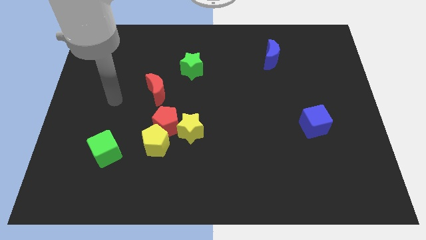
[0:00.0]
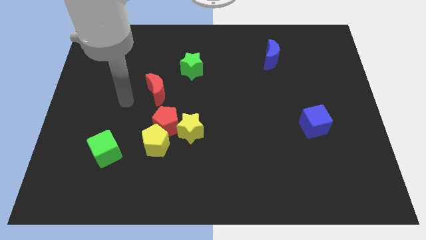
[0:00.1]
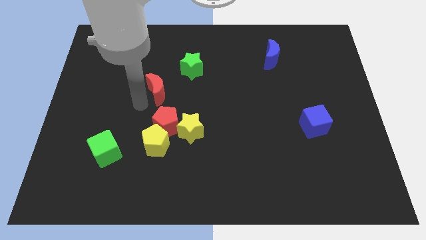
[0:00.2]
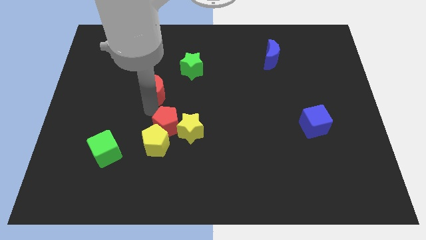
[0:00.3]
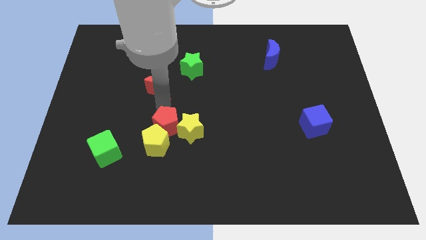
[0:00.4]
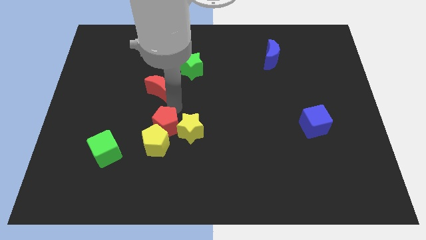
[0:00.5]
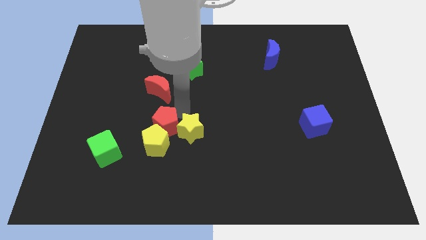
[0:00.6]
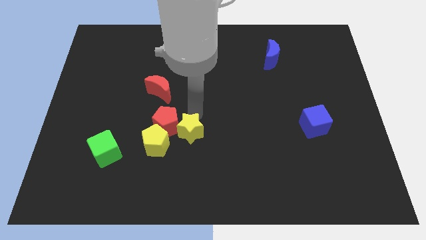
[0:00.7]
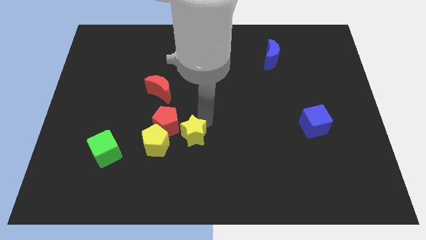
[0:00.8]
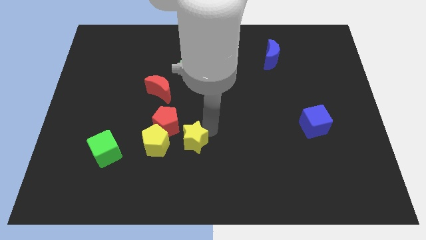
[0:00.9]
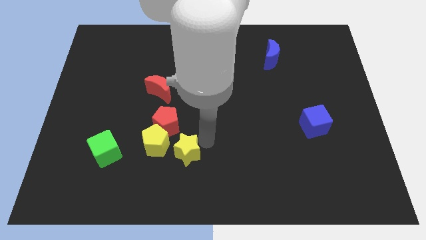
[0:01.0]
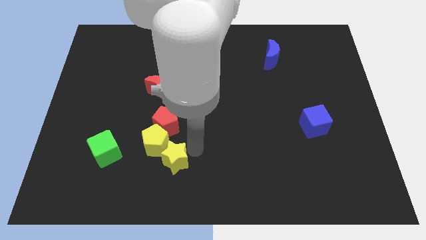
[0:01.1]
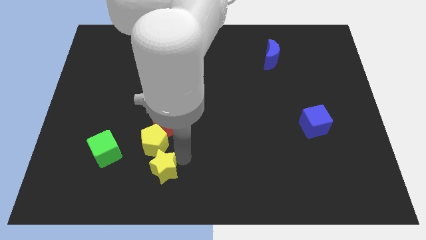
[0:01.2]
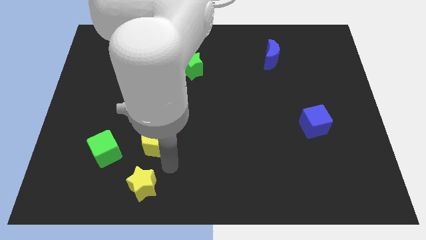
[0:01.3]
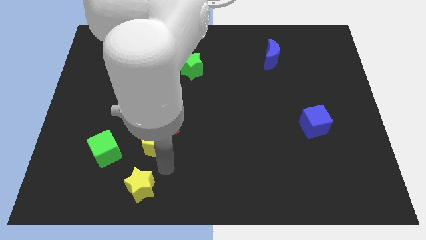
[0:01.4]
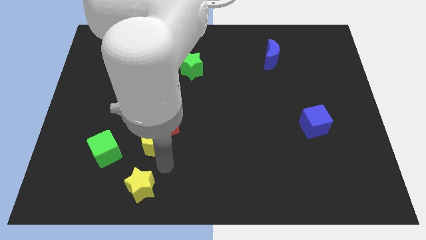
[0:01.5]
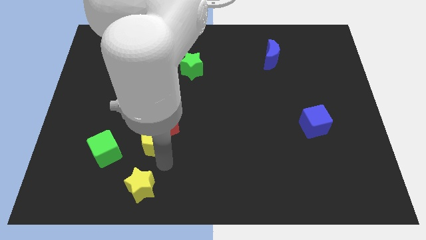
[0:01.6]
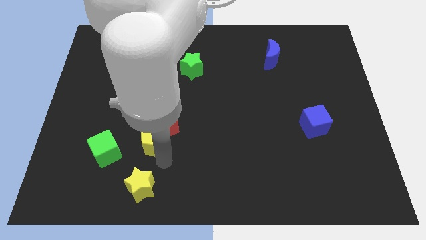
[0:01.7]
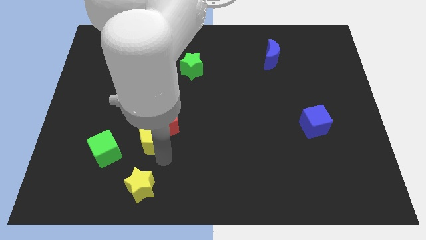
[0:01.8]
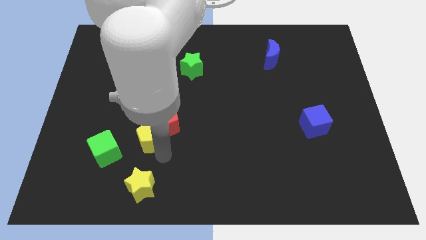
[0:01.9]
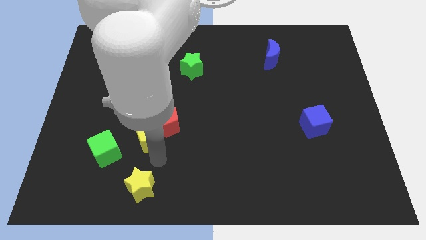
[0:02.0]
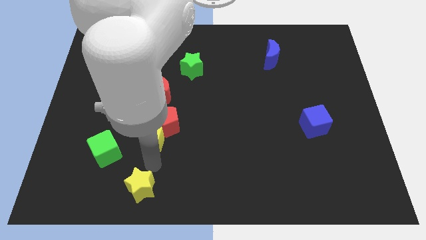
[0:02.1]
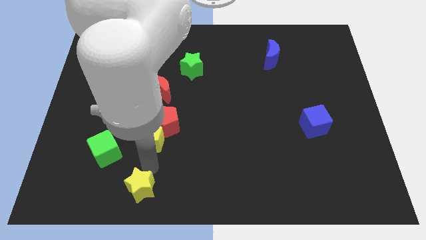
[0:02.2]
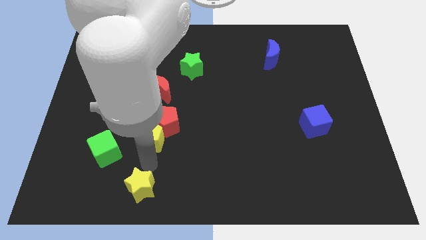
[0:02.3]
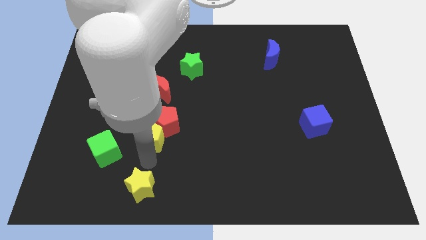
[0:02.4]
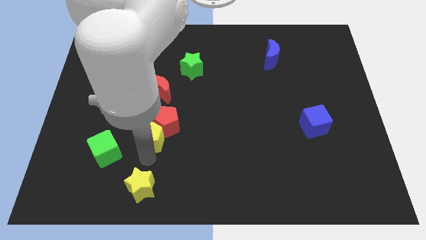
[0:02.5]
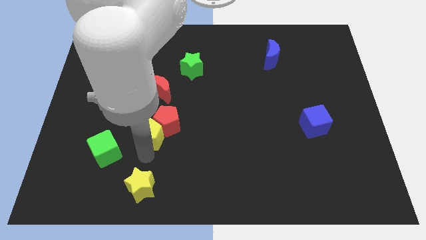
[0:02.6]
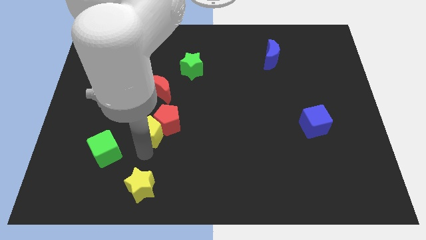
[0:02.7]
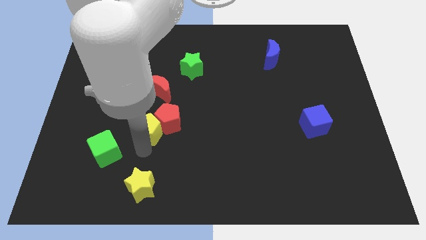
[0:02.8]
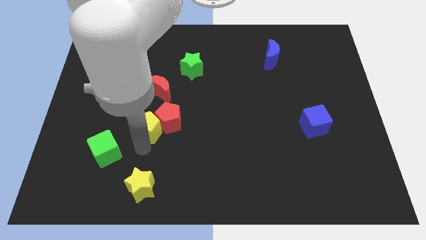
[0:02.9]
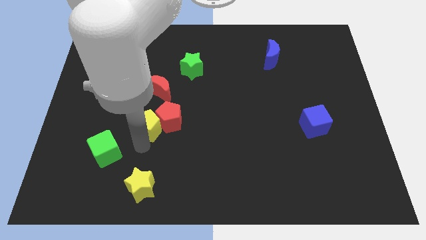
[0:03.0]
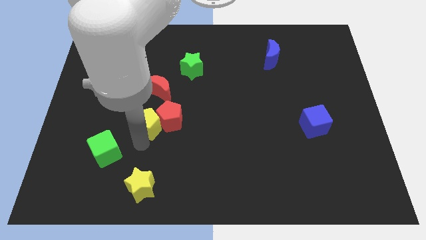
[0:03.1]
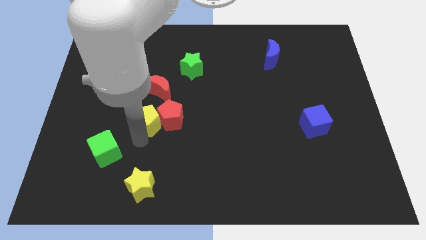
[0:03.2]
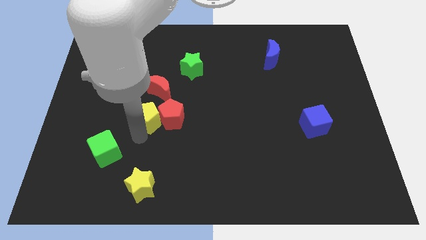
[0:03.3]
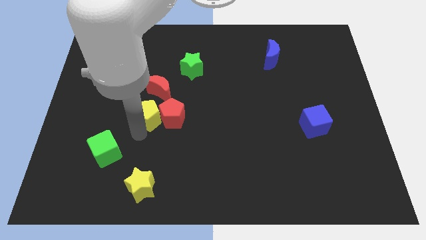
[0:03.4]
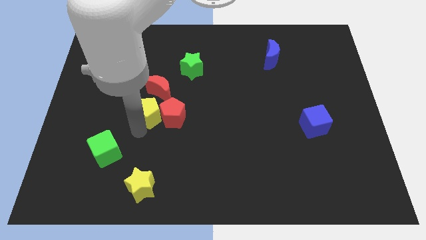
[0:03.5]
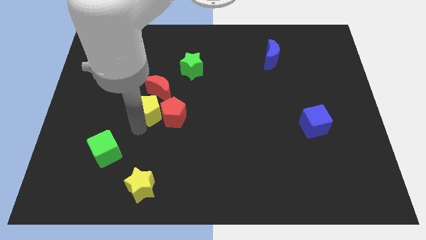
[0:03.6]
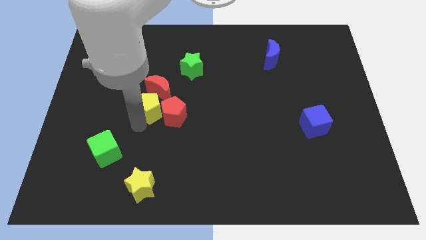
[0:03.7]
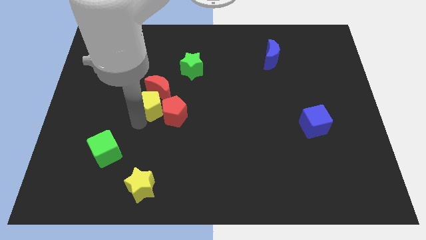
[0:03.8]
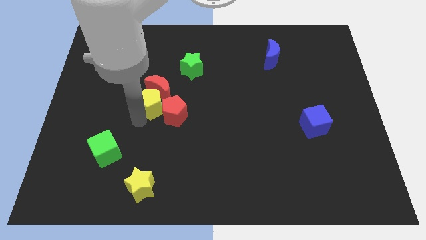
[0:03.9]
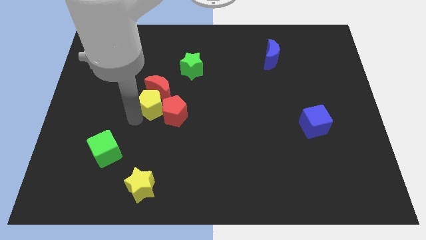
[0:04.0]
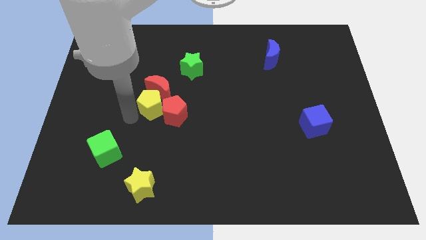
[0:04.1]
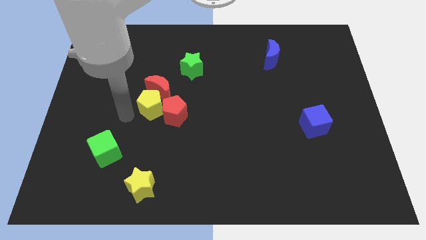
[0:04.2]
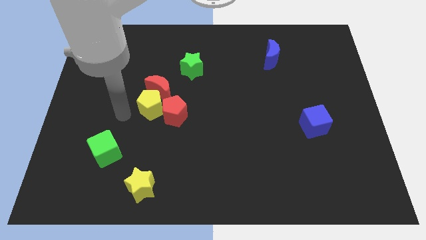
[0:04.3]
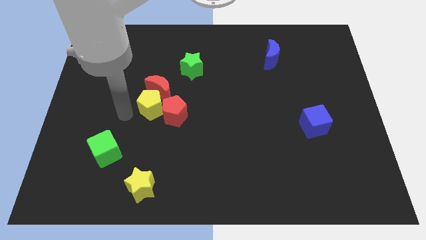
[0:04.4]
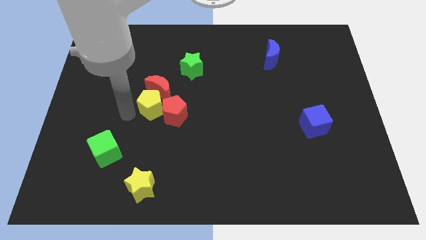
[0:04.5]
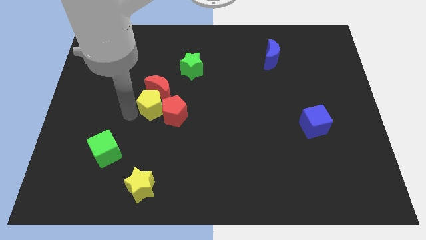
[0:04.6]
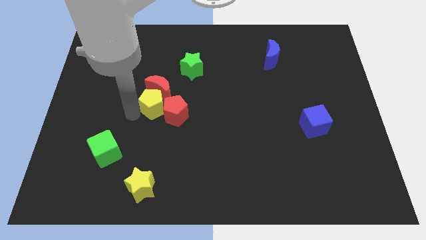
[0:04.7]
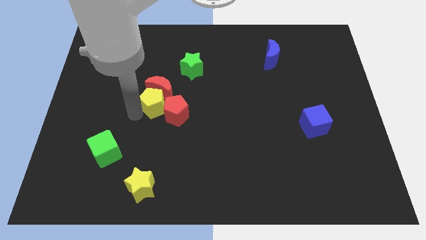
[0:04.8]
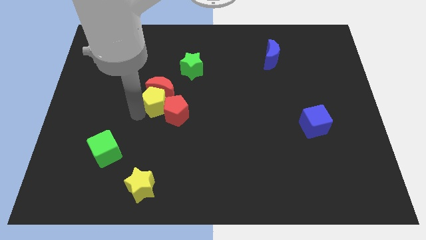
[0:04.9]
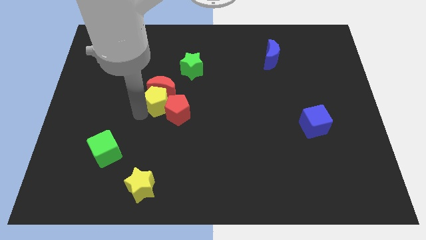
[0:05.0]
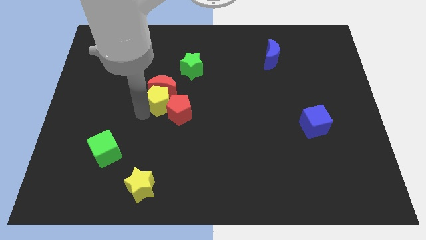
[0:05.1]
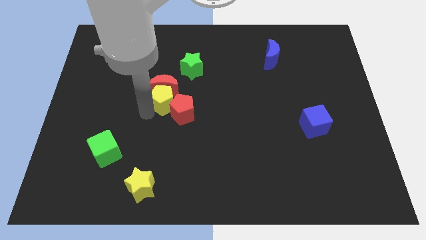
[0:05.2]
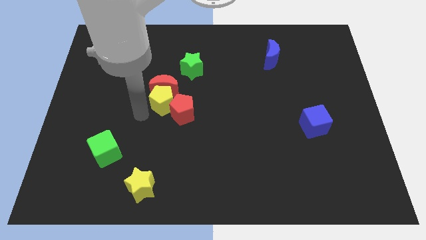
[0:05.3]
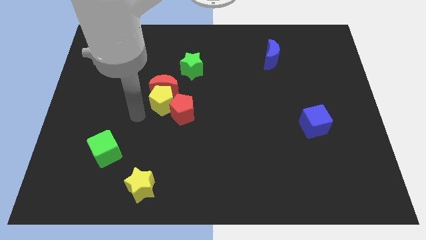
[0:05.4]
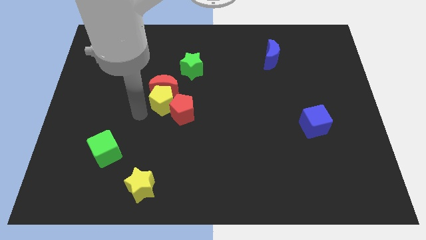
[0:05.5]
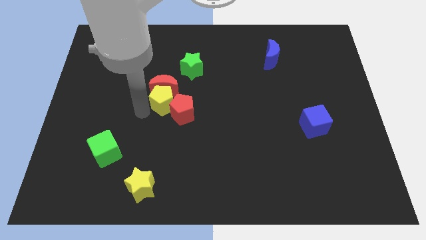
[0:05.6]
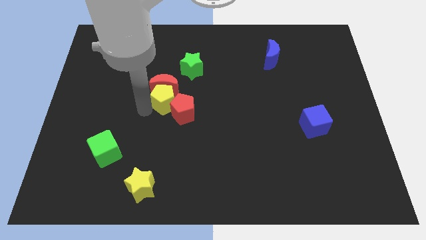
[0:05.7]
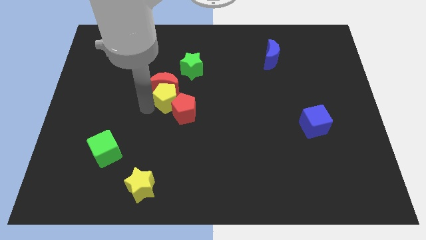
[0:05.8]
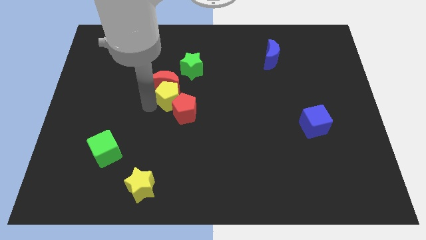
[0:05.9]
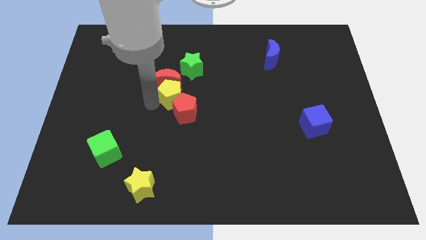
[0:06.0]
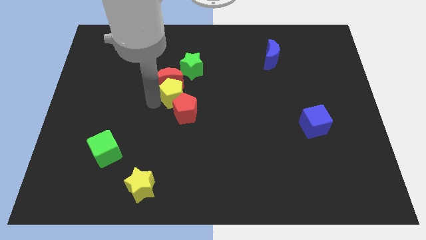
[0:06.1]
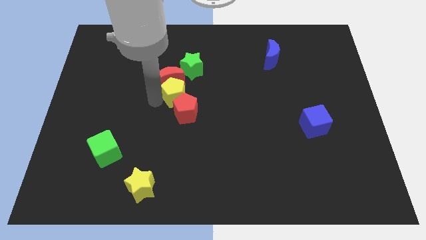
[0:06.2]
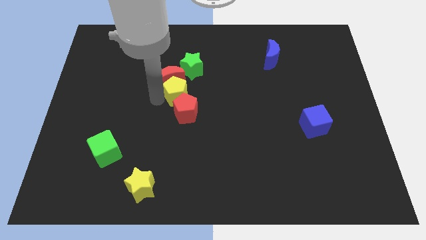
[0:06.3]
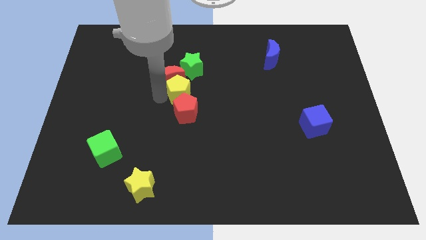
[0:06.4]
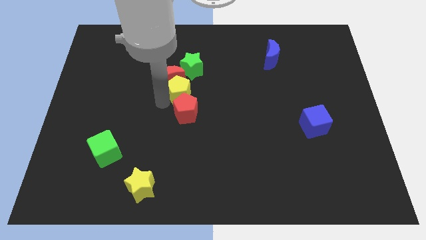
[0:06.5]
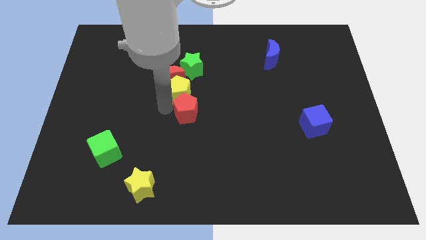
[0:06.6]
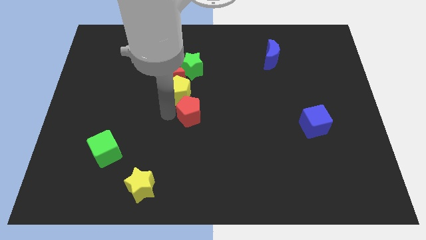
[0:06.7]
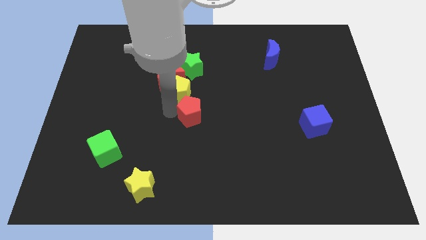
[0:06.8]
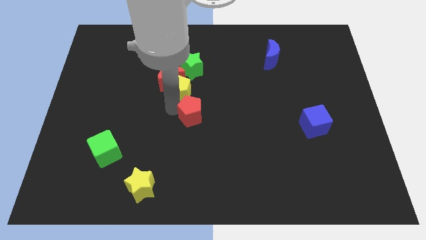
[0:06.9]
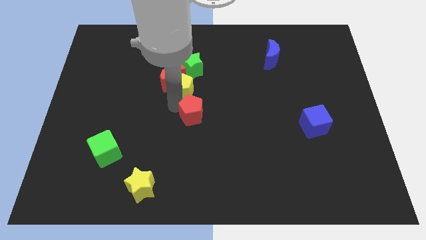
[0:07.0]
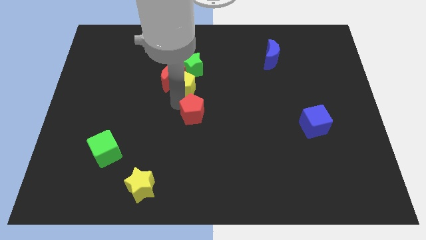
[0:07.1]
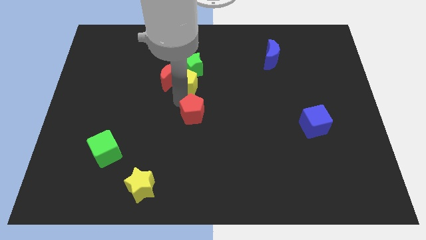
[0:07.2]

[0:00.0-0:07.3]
put the yellow pentagon to the top right of the red moon
